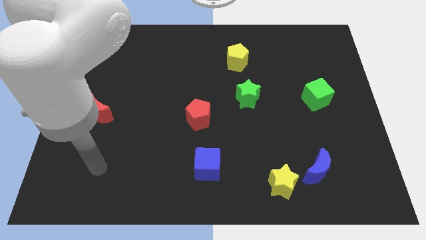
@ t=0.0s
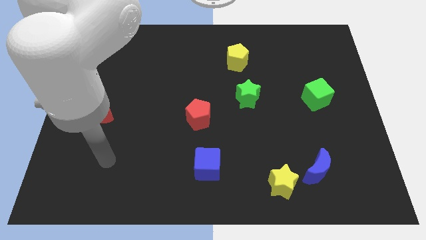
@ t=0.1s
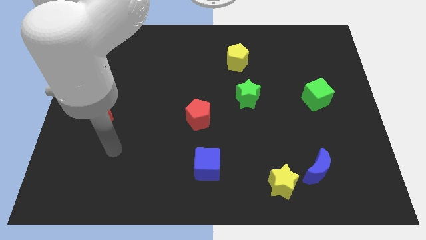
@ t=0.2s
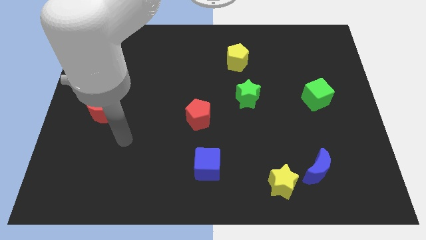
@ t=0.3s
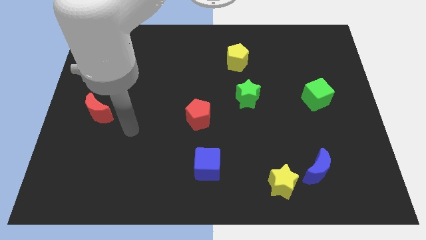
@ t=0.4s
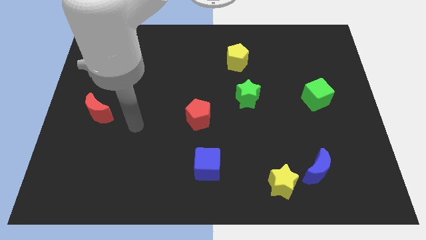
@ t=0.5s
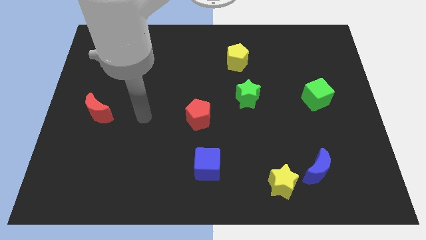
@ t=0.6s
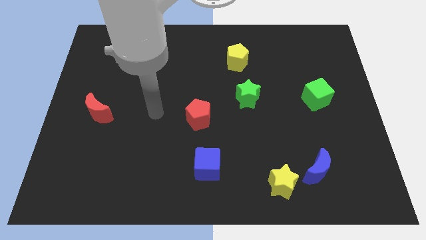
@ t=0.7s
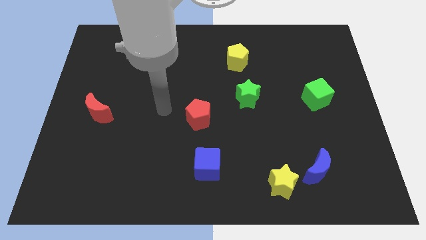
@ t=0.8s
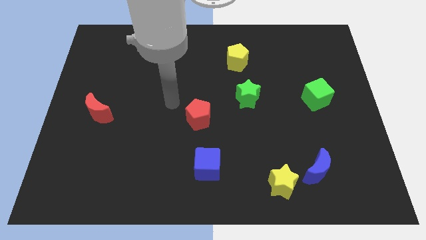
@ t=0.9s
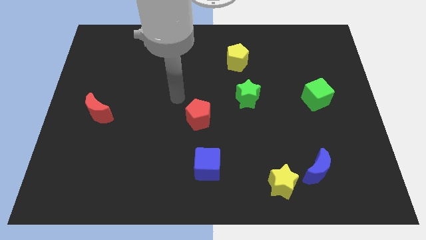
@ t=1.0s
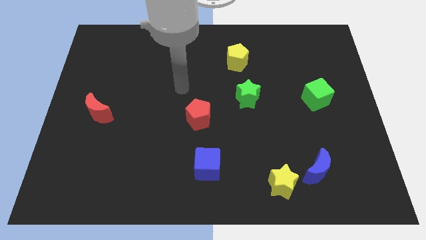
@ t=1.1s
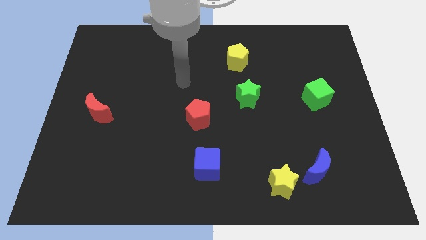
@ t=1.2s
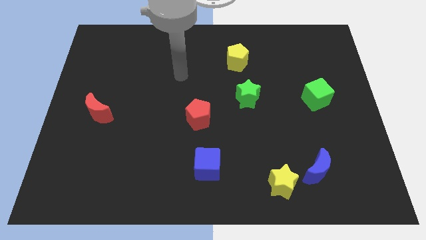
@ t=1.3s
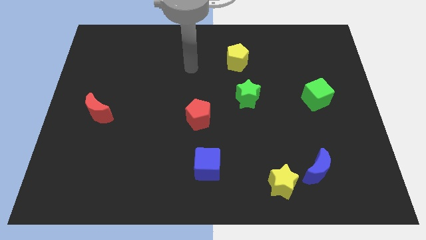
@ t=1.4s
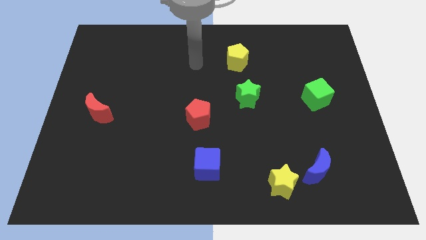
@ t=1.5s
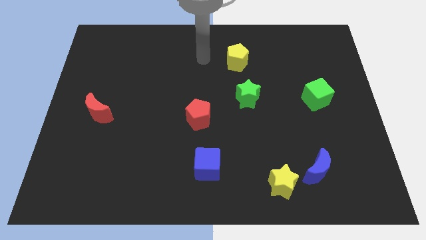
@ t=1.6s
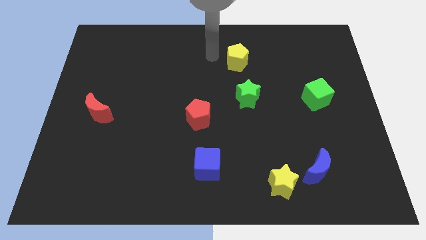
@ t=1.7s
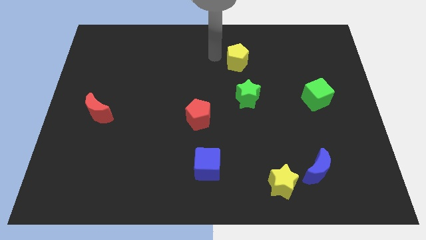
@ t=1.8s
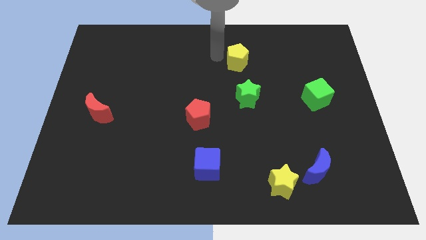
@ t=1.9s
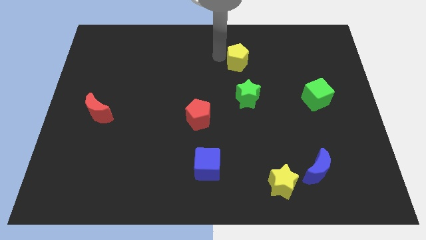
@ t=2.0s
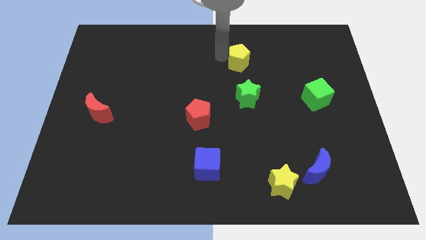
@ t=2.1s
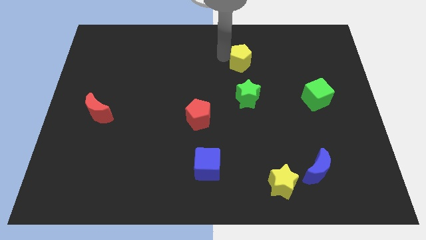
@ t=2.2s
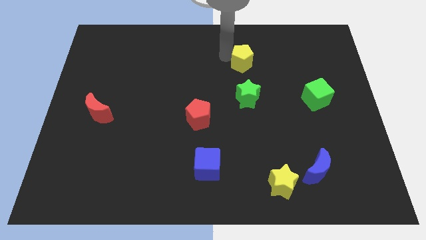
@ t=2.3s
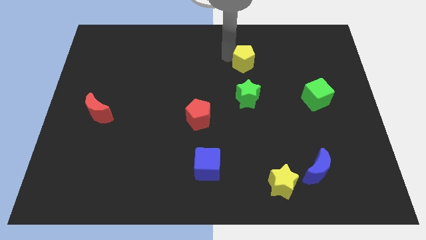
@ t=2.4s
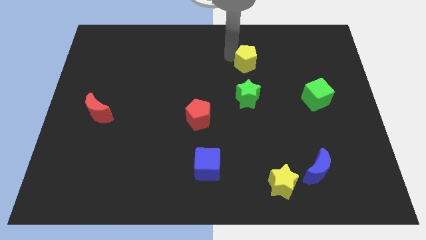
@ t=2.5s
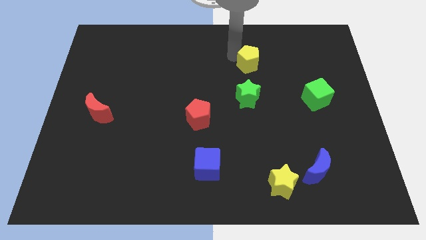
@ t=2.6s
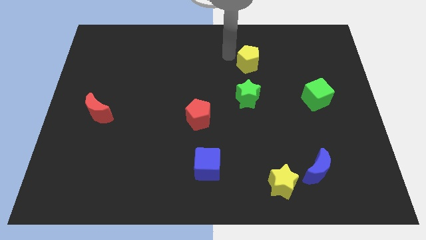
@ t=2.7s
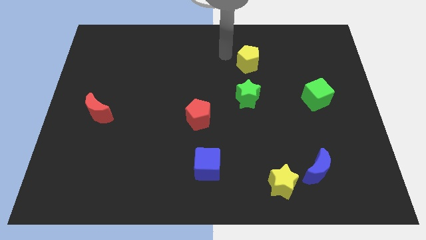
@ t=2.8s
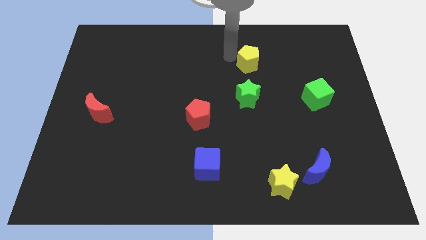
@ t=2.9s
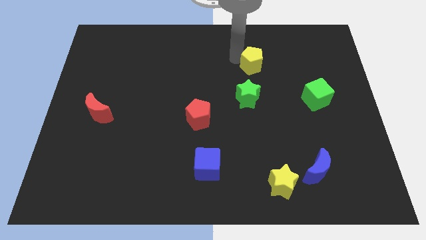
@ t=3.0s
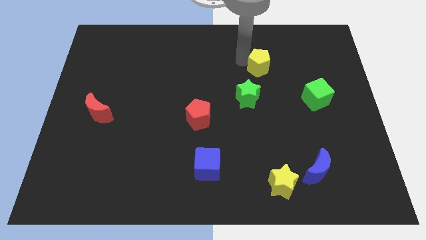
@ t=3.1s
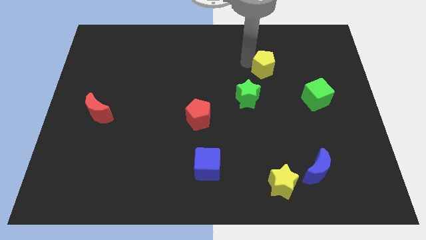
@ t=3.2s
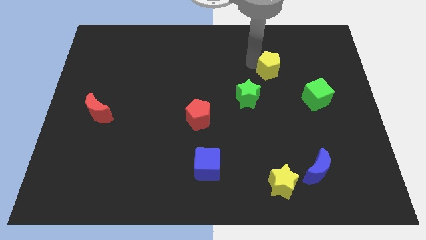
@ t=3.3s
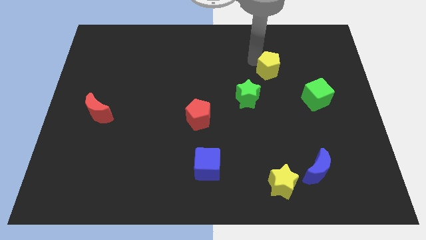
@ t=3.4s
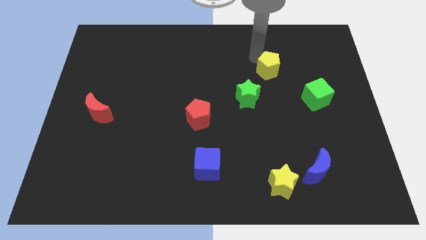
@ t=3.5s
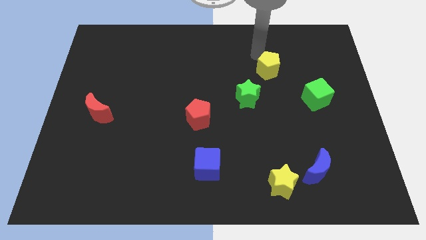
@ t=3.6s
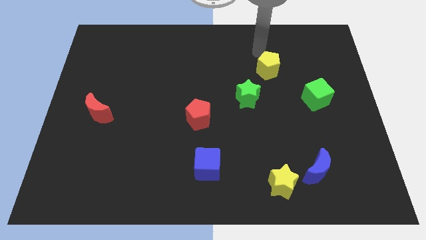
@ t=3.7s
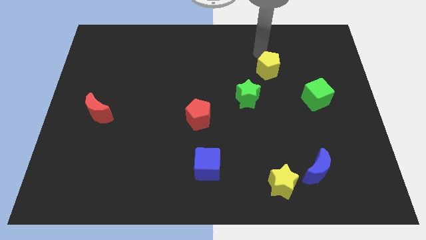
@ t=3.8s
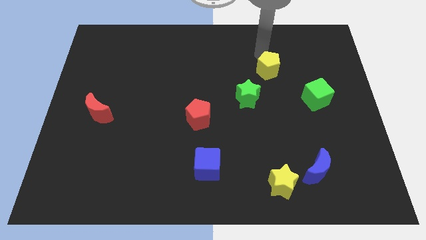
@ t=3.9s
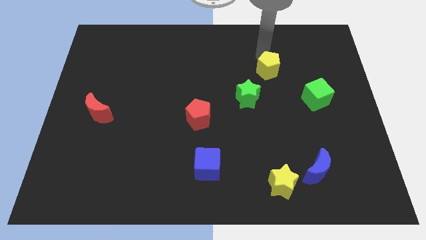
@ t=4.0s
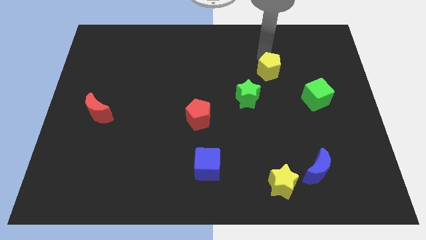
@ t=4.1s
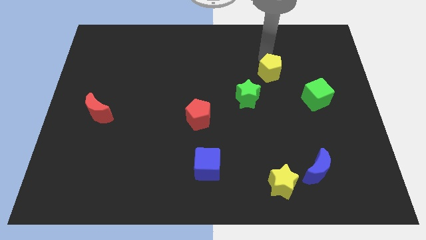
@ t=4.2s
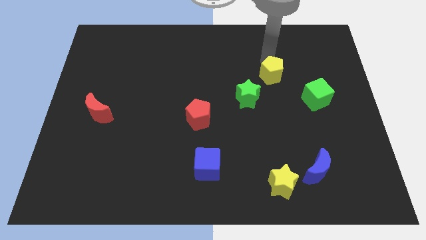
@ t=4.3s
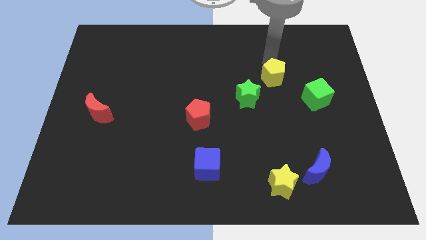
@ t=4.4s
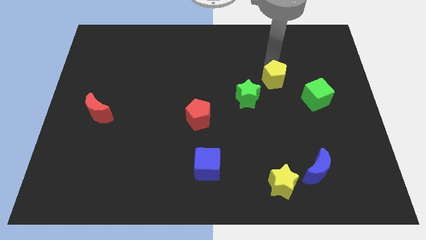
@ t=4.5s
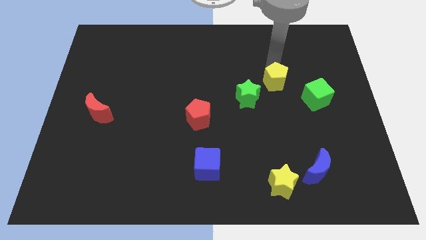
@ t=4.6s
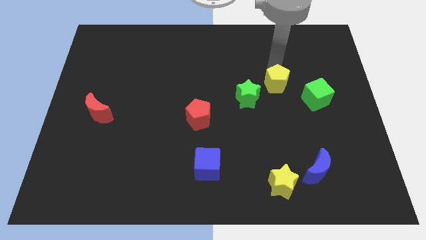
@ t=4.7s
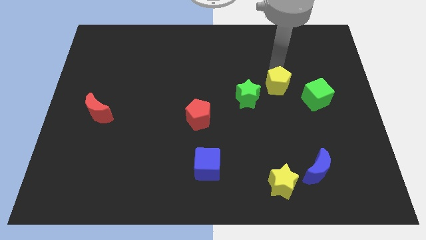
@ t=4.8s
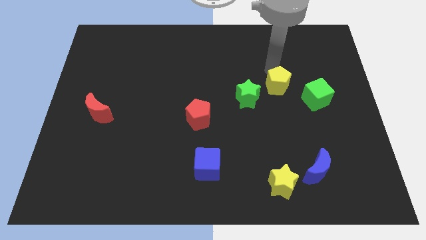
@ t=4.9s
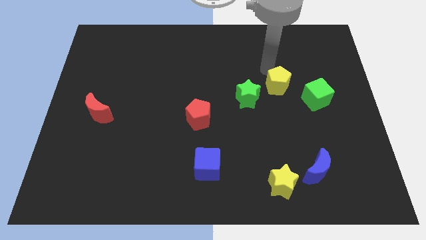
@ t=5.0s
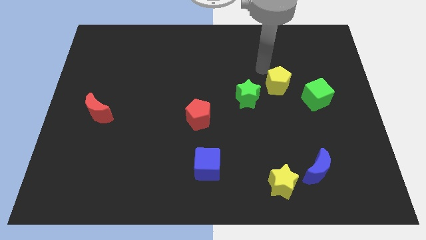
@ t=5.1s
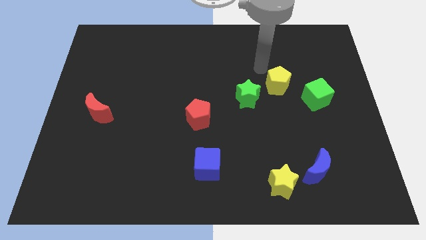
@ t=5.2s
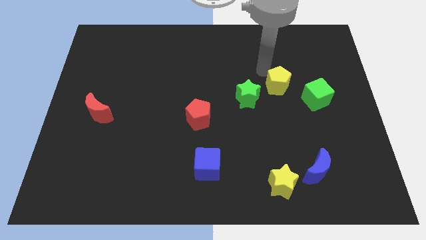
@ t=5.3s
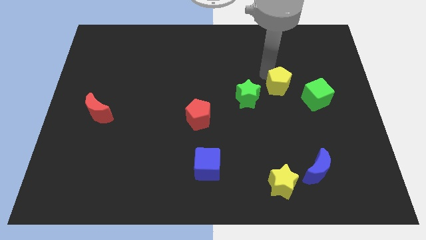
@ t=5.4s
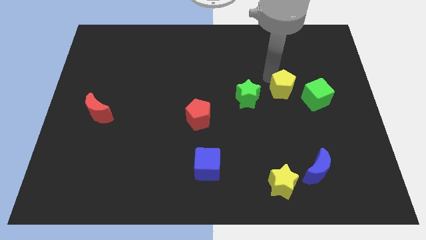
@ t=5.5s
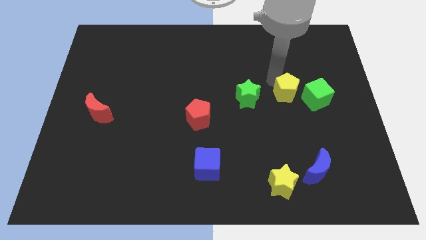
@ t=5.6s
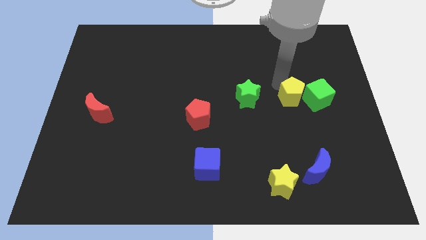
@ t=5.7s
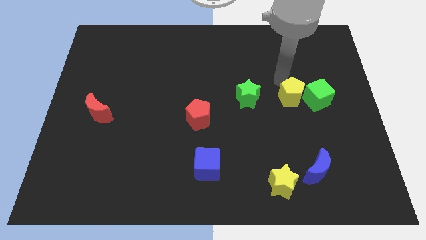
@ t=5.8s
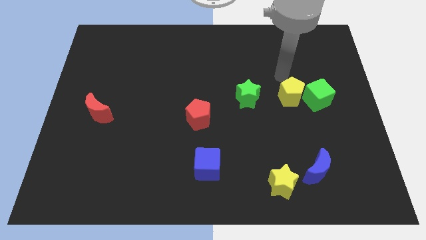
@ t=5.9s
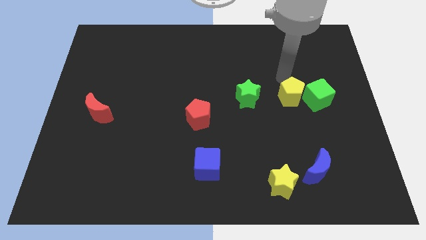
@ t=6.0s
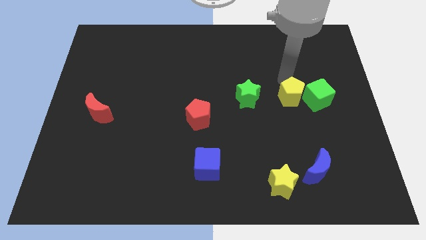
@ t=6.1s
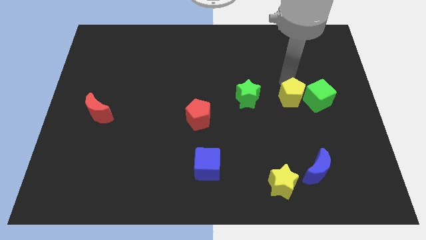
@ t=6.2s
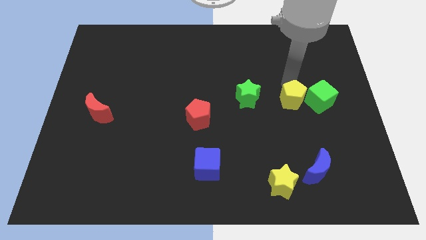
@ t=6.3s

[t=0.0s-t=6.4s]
push the yellow pentagon to the bottom left of the green cube

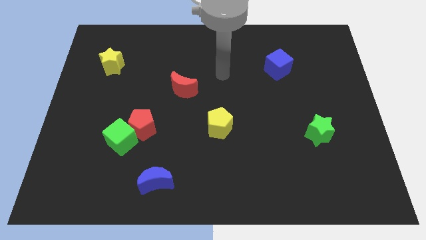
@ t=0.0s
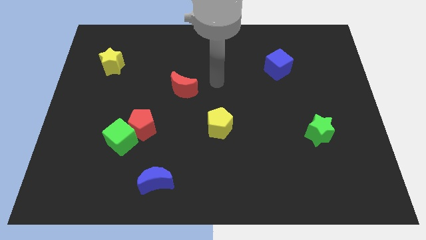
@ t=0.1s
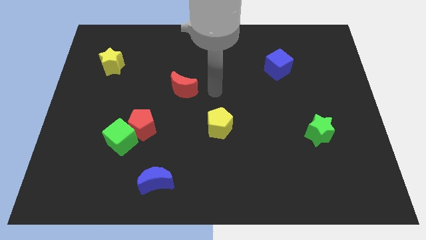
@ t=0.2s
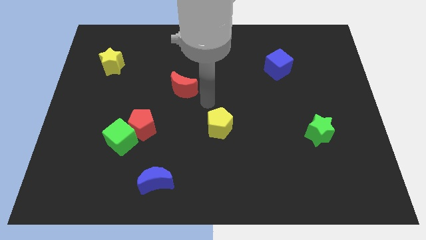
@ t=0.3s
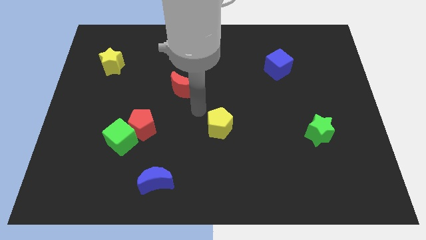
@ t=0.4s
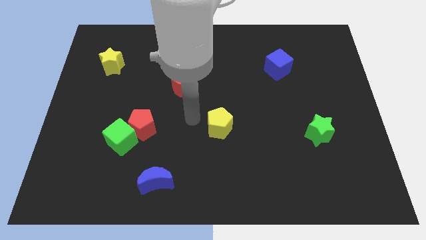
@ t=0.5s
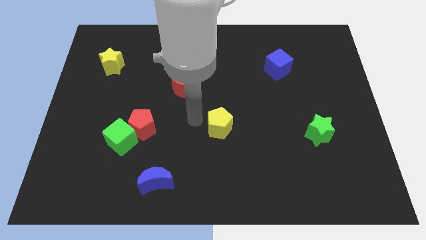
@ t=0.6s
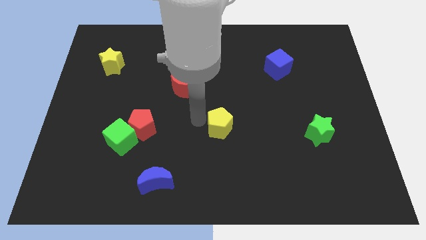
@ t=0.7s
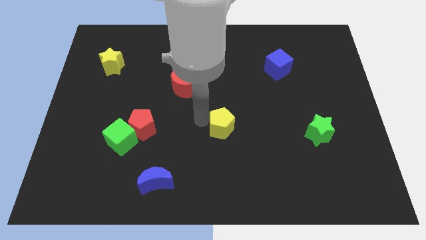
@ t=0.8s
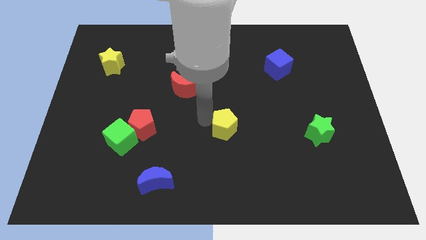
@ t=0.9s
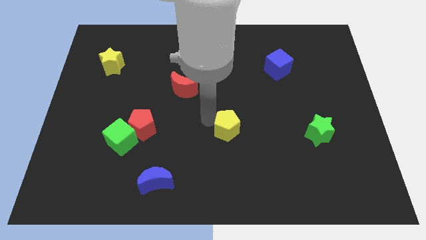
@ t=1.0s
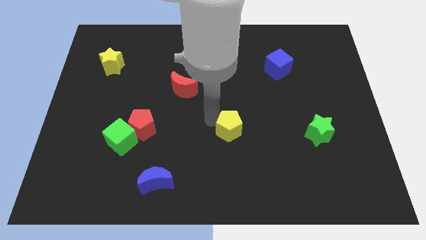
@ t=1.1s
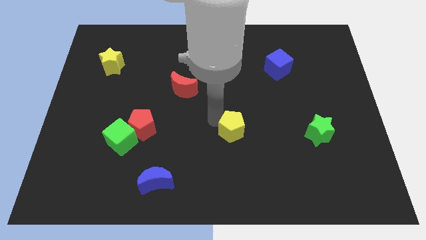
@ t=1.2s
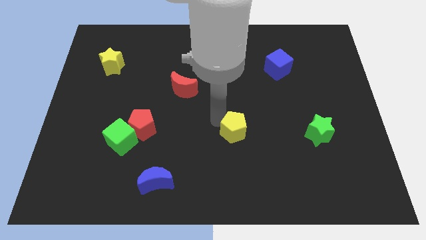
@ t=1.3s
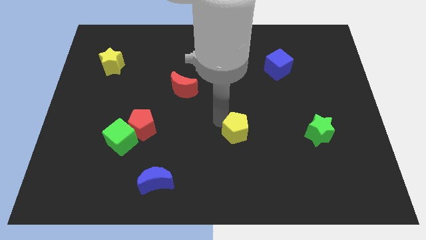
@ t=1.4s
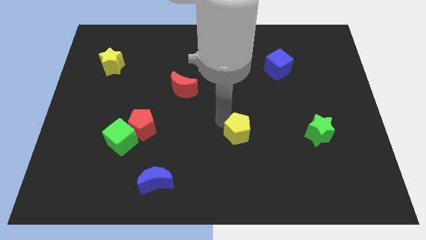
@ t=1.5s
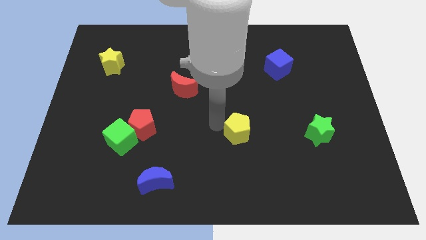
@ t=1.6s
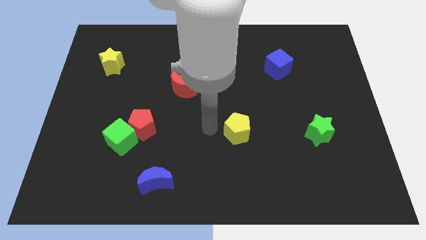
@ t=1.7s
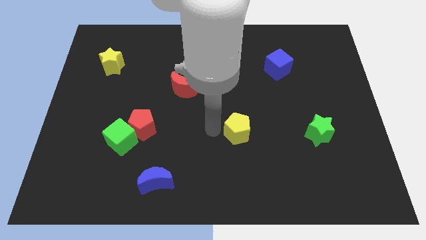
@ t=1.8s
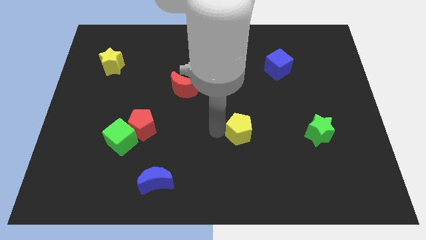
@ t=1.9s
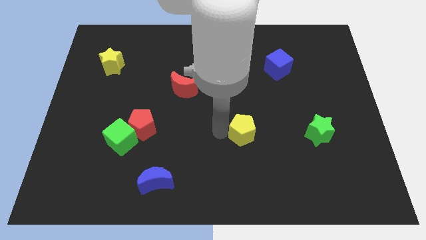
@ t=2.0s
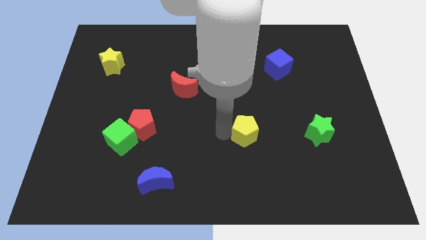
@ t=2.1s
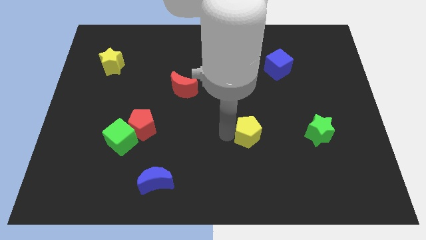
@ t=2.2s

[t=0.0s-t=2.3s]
push the yellow pentagon just left of the green star
